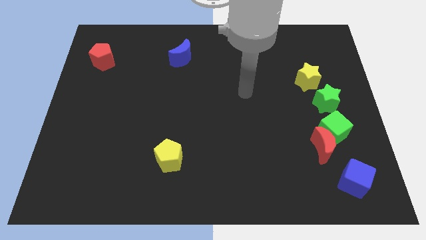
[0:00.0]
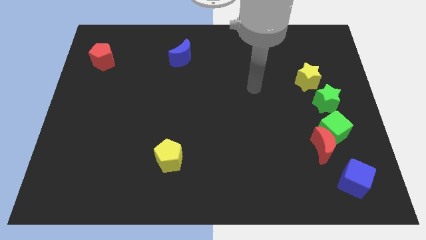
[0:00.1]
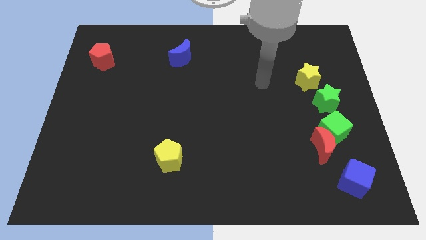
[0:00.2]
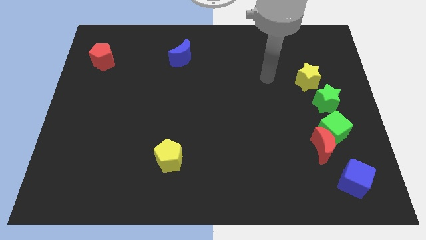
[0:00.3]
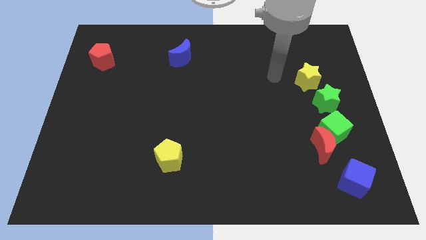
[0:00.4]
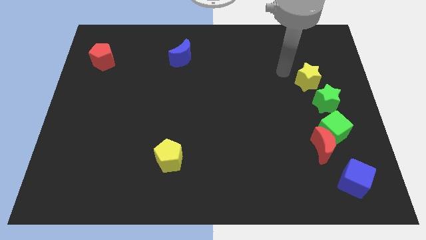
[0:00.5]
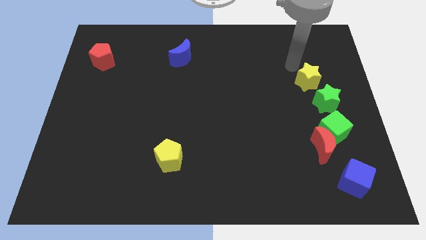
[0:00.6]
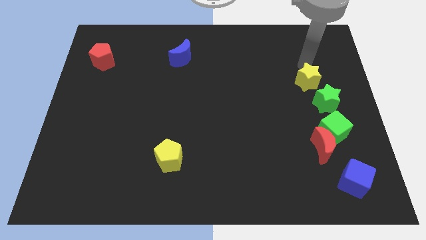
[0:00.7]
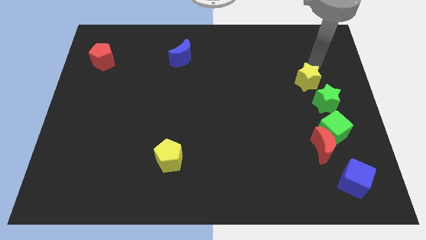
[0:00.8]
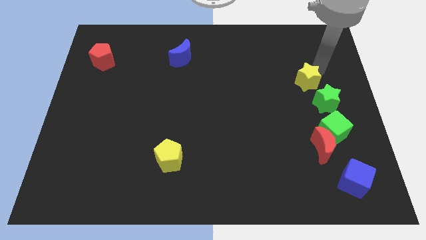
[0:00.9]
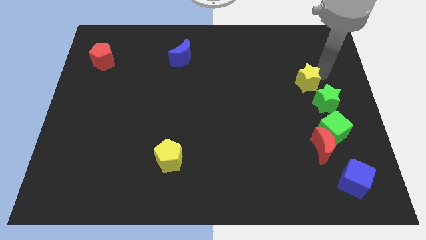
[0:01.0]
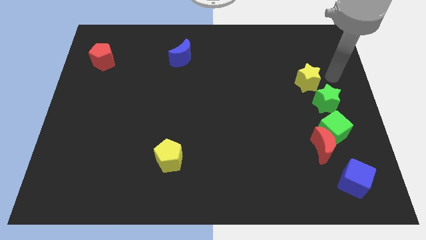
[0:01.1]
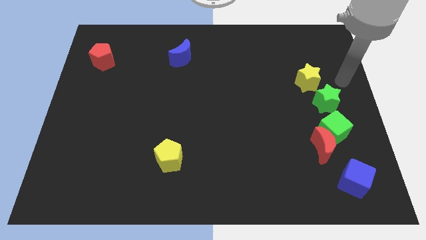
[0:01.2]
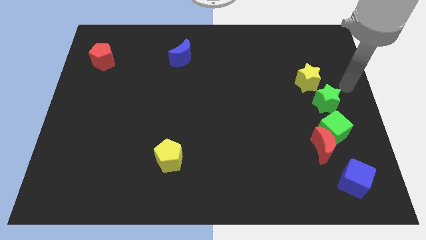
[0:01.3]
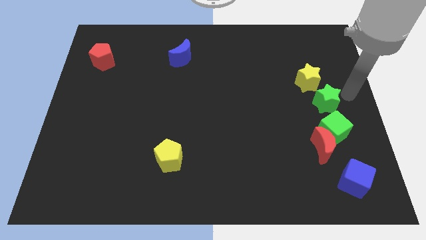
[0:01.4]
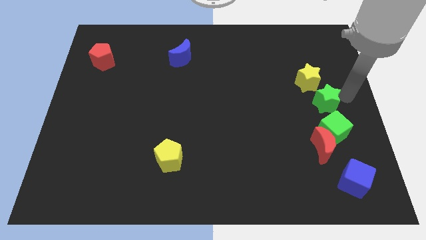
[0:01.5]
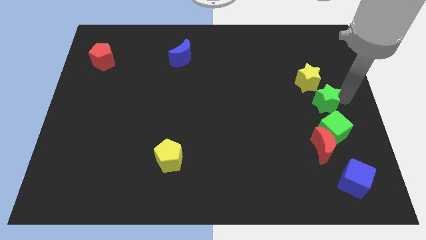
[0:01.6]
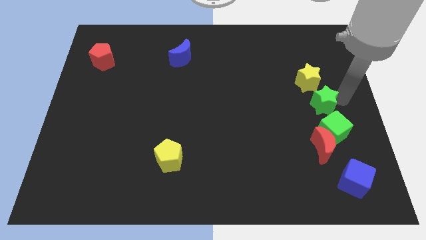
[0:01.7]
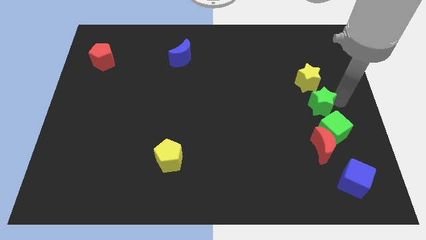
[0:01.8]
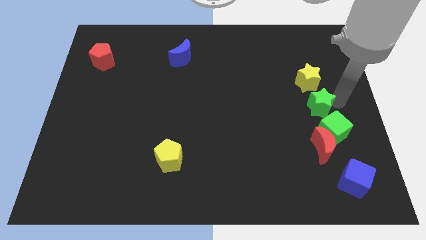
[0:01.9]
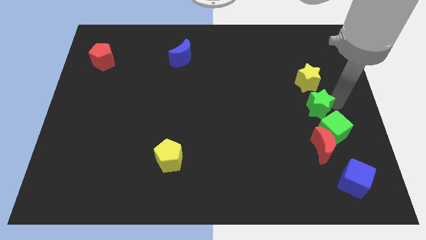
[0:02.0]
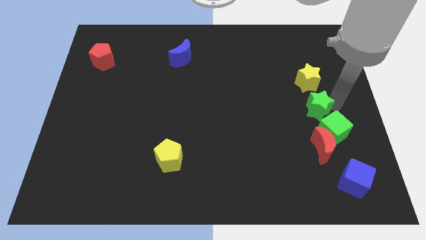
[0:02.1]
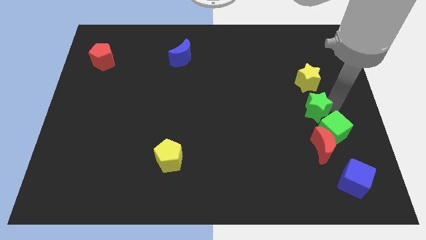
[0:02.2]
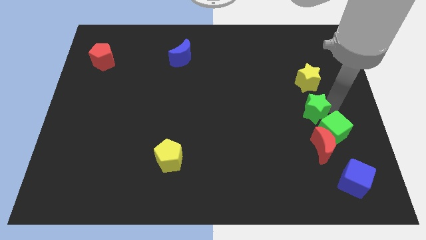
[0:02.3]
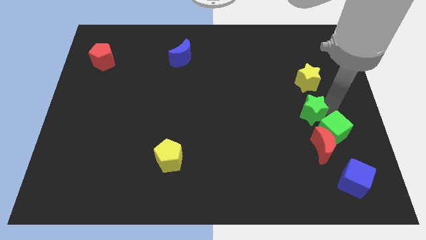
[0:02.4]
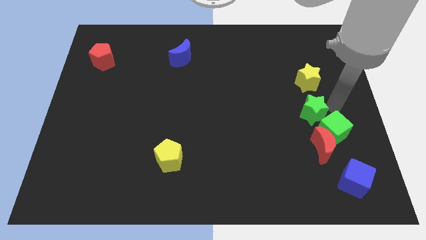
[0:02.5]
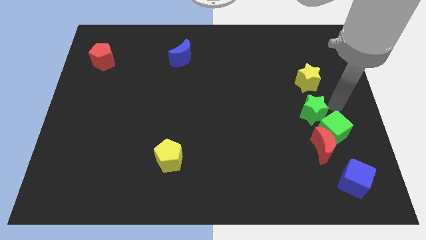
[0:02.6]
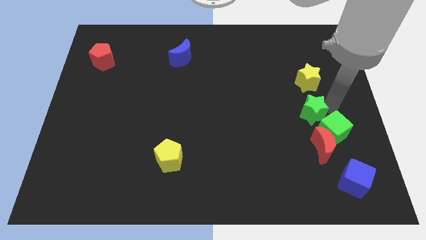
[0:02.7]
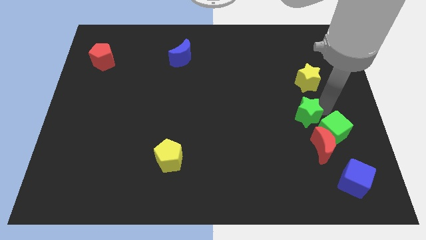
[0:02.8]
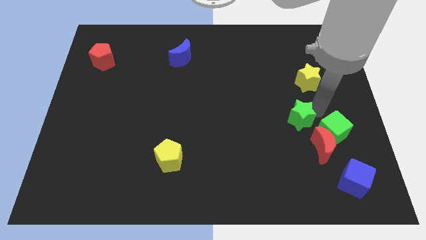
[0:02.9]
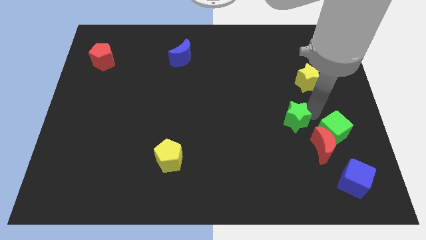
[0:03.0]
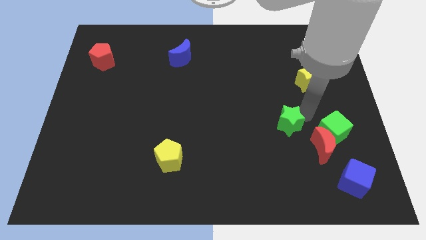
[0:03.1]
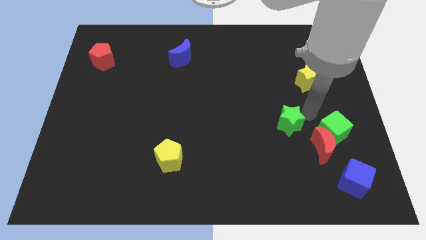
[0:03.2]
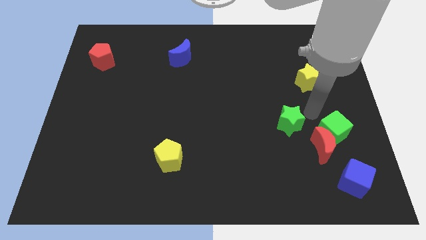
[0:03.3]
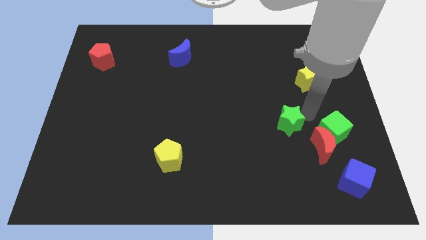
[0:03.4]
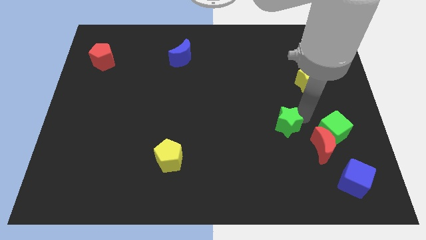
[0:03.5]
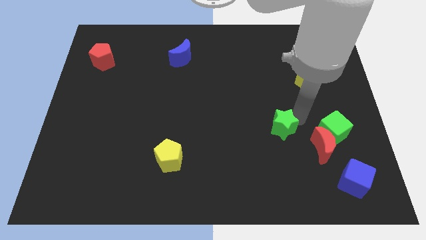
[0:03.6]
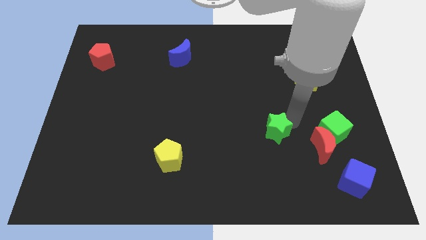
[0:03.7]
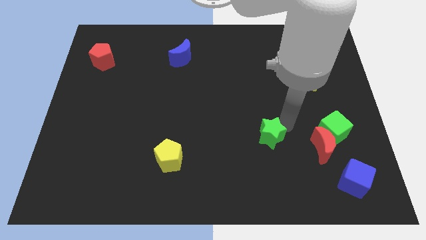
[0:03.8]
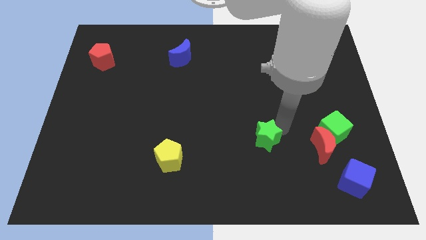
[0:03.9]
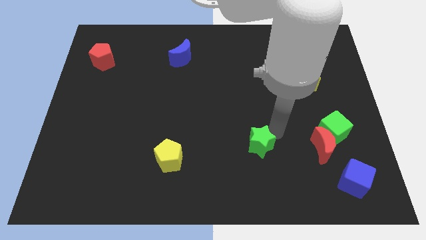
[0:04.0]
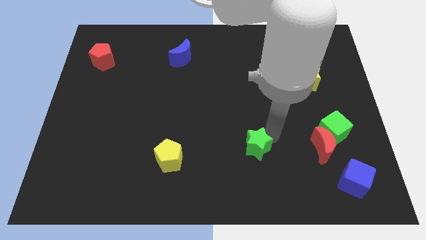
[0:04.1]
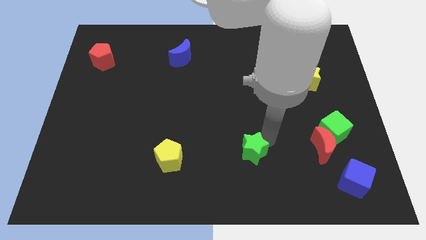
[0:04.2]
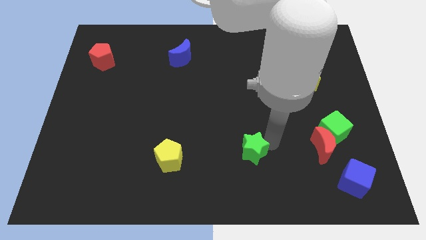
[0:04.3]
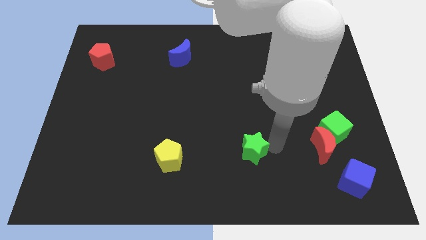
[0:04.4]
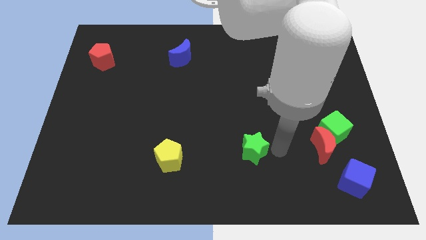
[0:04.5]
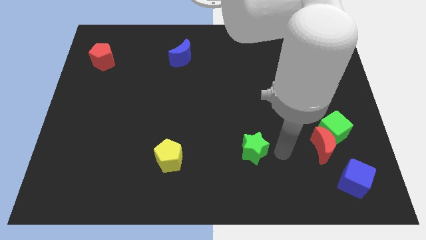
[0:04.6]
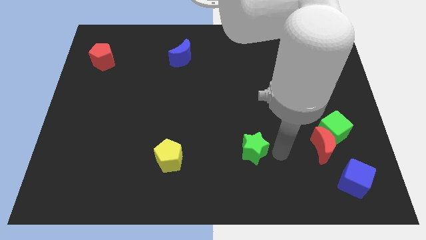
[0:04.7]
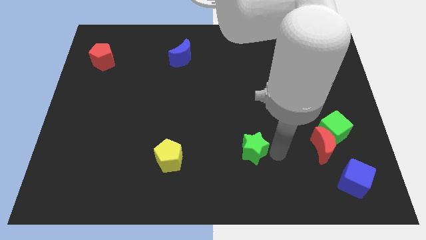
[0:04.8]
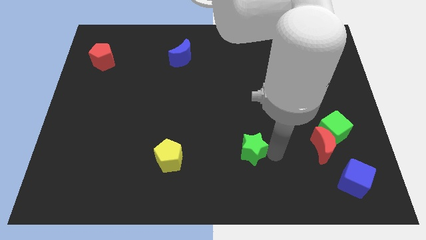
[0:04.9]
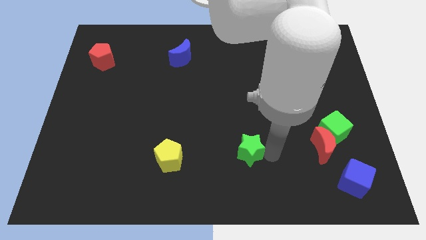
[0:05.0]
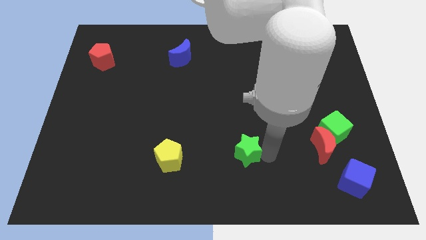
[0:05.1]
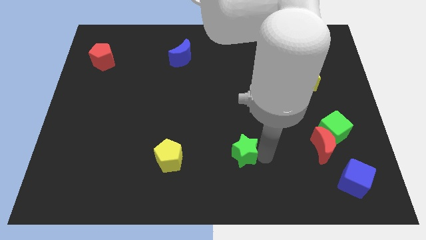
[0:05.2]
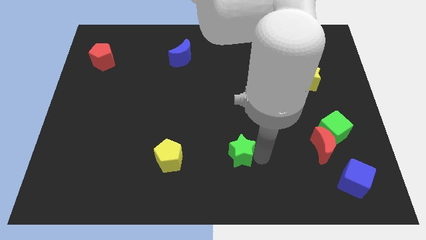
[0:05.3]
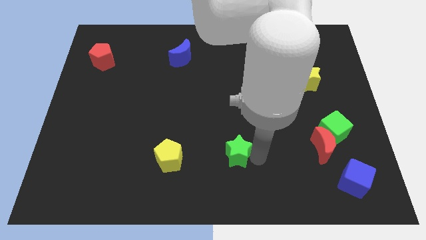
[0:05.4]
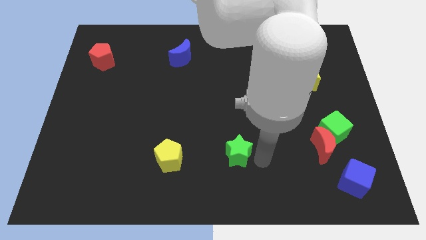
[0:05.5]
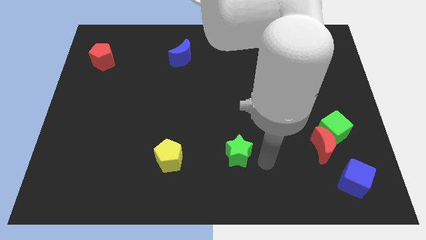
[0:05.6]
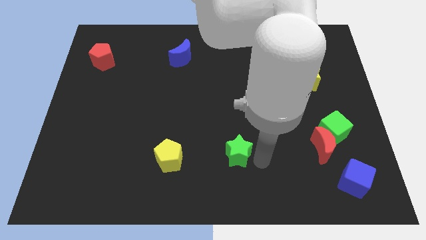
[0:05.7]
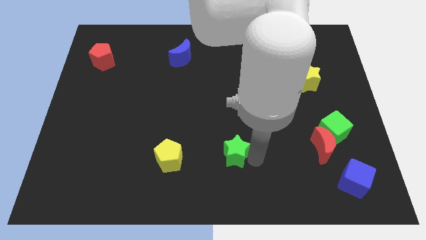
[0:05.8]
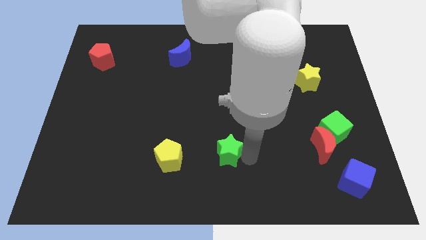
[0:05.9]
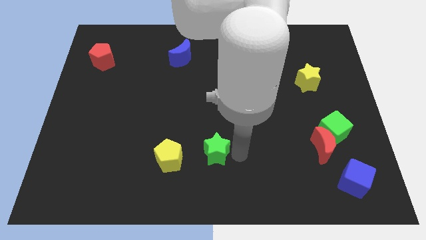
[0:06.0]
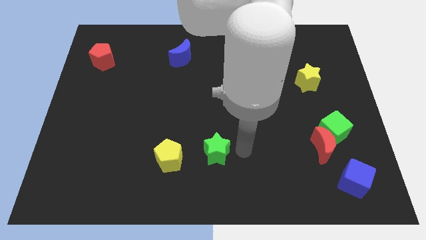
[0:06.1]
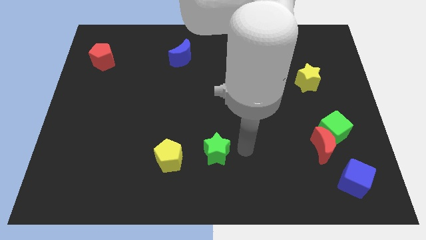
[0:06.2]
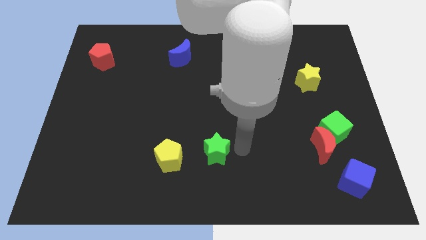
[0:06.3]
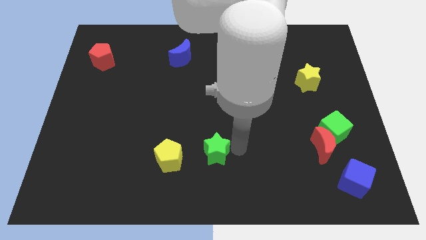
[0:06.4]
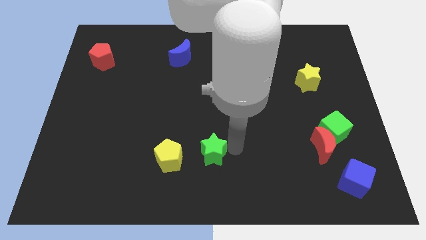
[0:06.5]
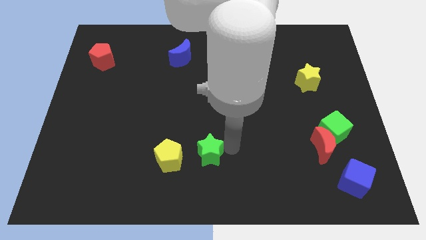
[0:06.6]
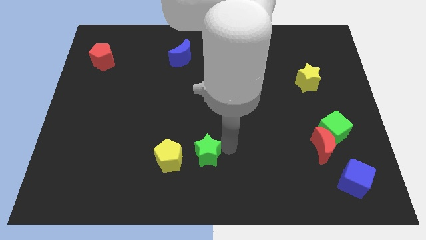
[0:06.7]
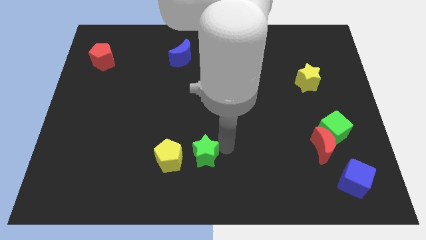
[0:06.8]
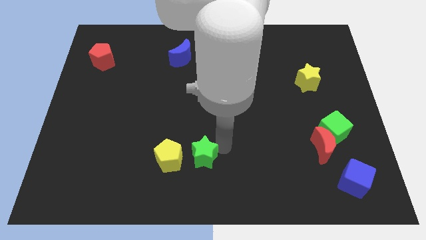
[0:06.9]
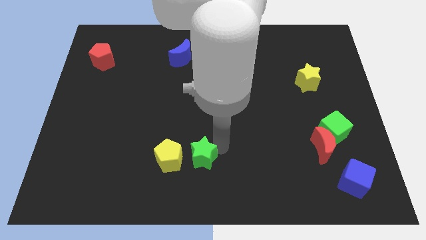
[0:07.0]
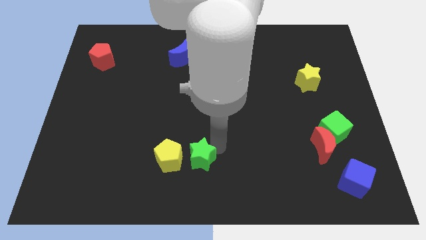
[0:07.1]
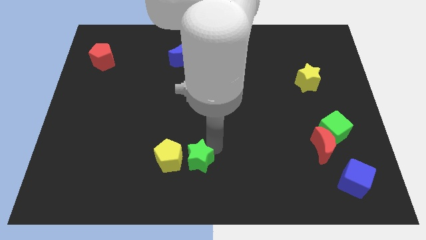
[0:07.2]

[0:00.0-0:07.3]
put the green star to the yellow pentagon
